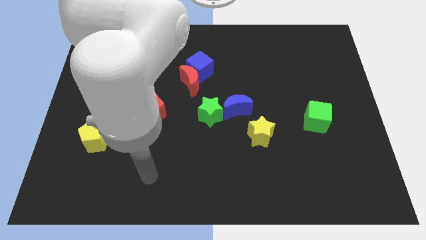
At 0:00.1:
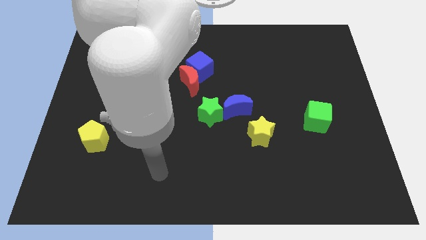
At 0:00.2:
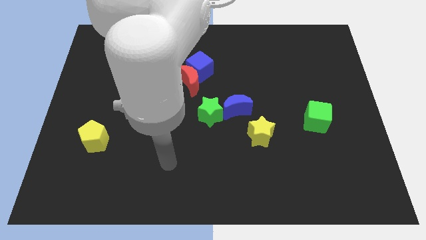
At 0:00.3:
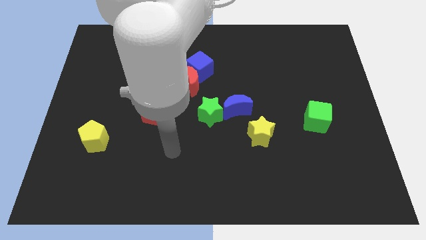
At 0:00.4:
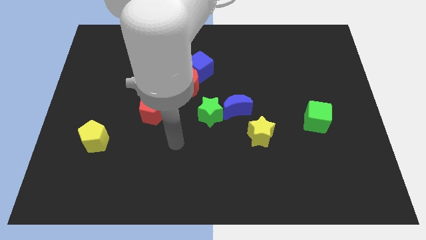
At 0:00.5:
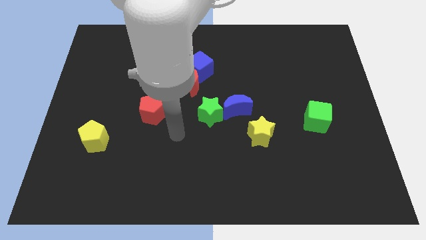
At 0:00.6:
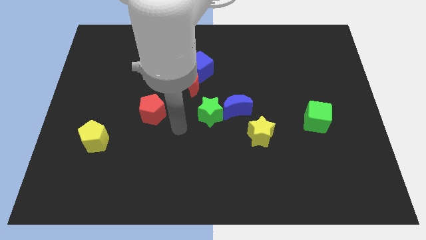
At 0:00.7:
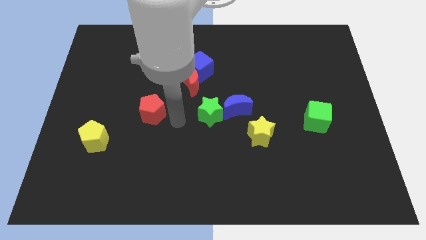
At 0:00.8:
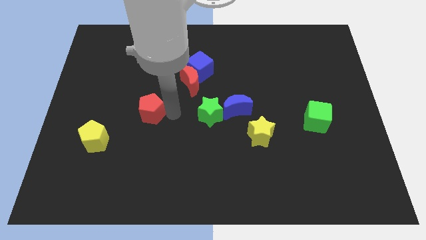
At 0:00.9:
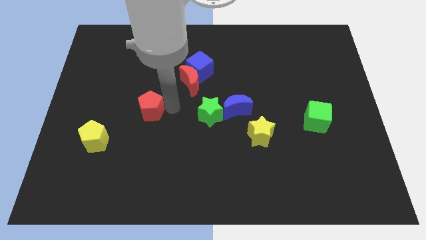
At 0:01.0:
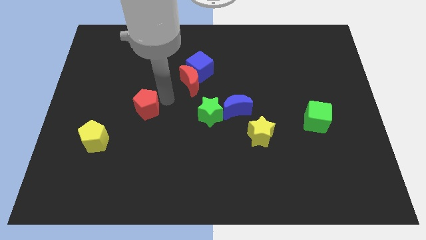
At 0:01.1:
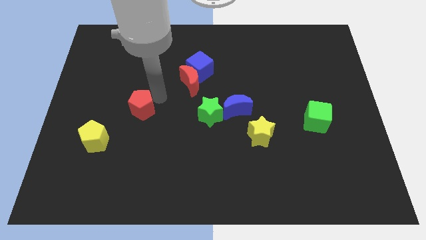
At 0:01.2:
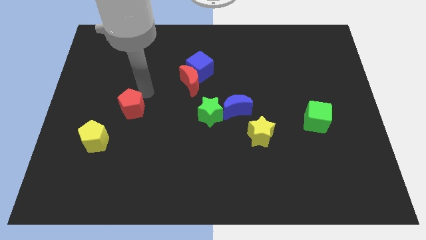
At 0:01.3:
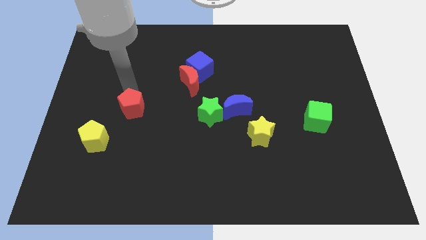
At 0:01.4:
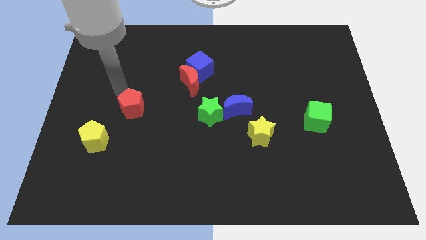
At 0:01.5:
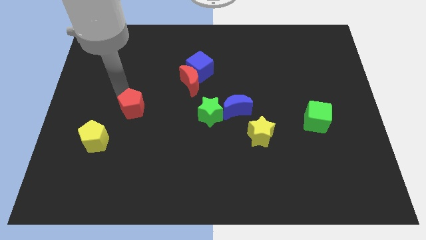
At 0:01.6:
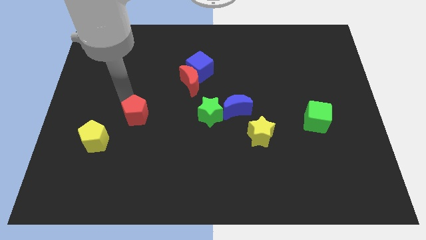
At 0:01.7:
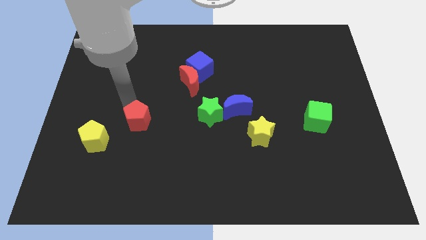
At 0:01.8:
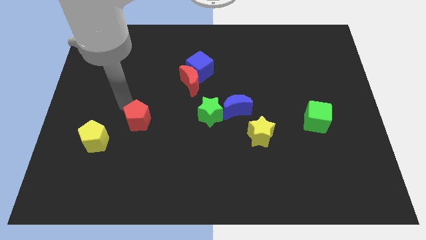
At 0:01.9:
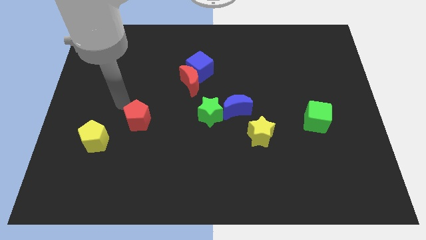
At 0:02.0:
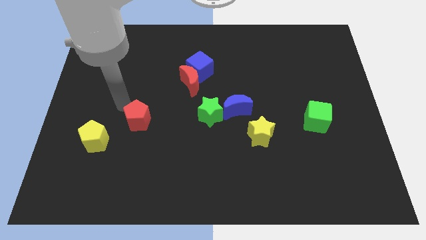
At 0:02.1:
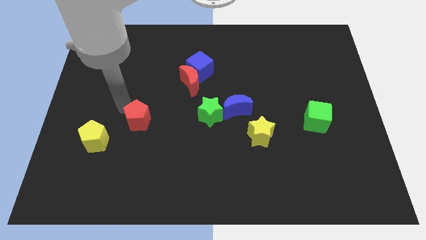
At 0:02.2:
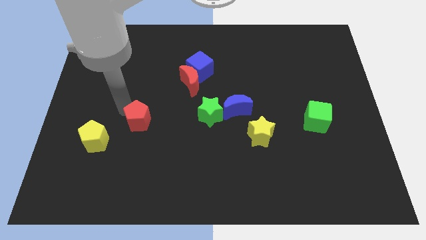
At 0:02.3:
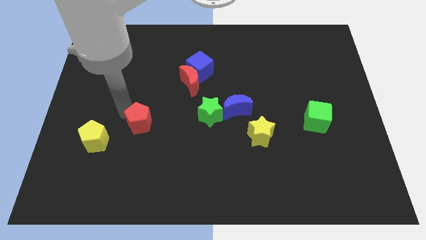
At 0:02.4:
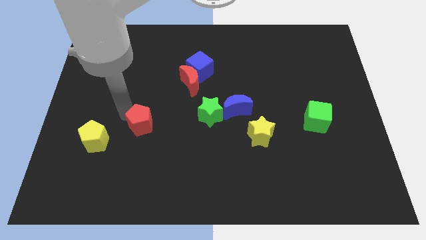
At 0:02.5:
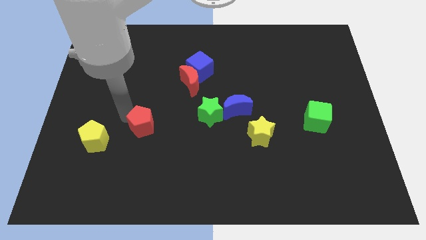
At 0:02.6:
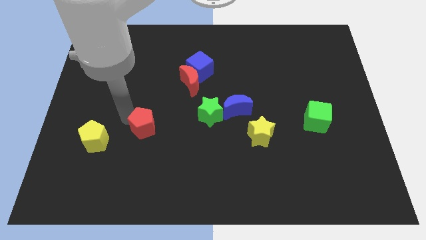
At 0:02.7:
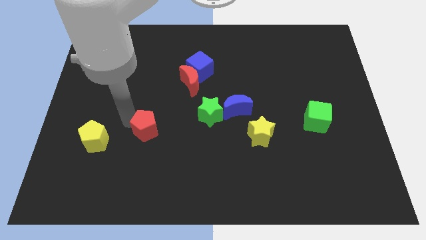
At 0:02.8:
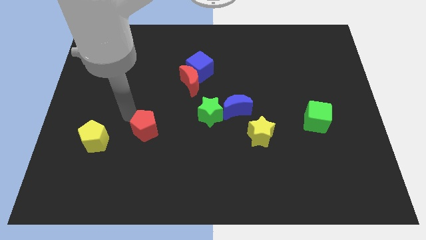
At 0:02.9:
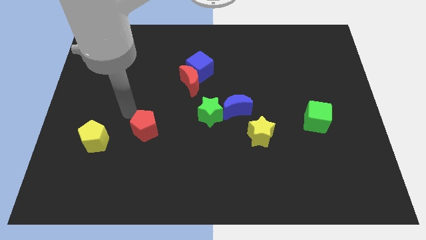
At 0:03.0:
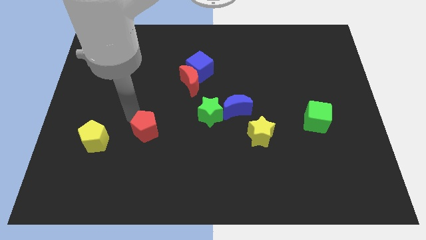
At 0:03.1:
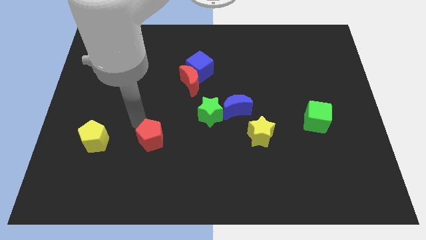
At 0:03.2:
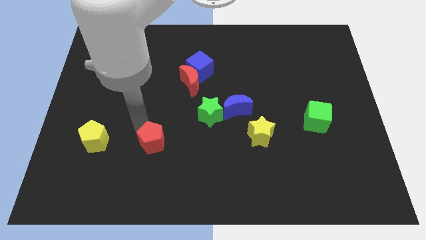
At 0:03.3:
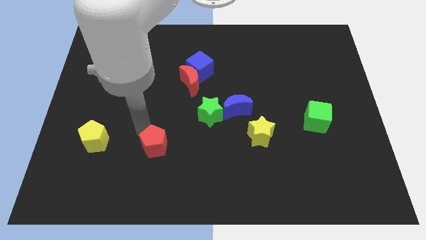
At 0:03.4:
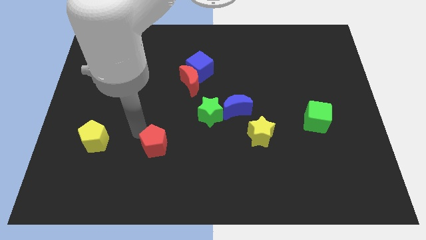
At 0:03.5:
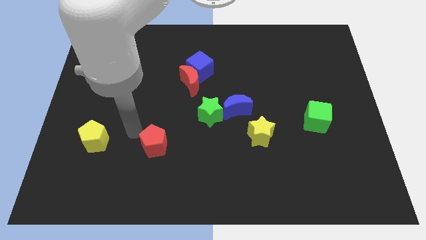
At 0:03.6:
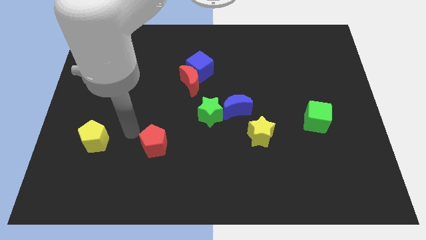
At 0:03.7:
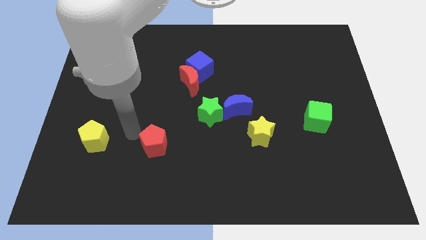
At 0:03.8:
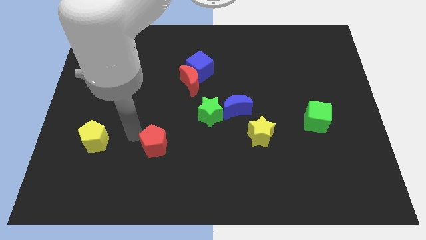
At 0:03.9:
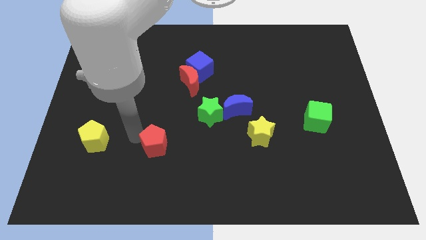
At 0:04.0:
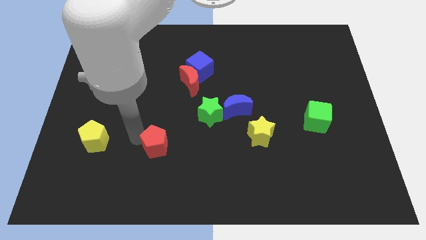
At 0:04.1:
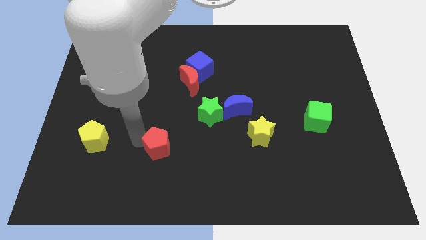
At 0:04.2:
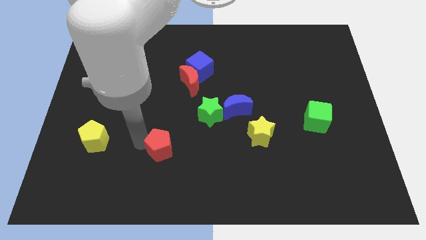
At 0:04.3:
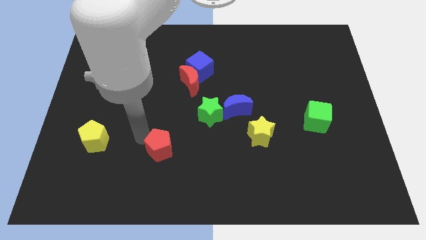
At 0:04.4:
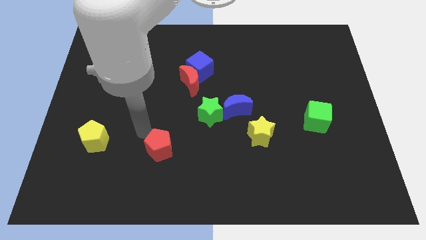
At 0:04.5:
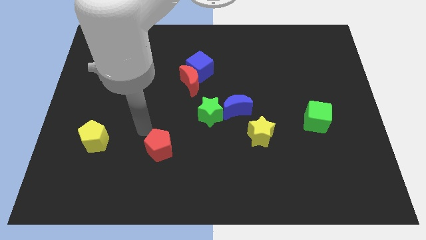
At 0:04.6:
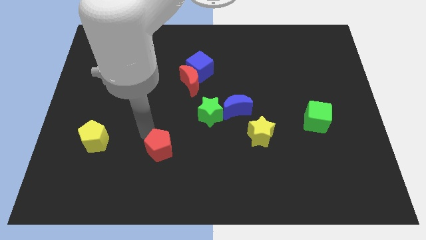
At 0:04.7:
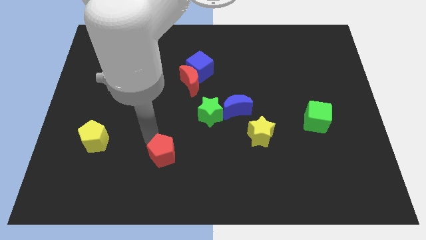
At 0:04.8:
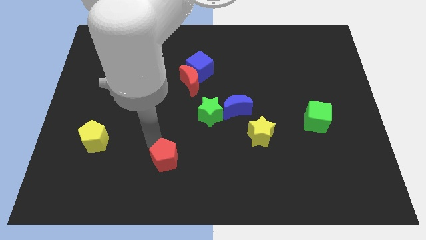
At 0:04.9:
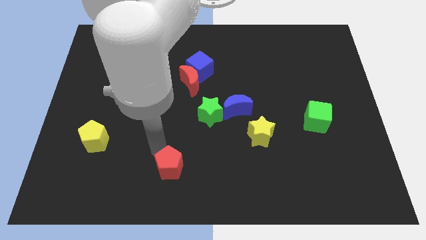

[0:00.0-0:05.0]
push the red pentagon to the bottom

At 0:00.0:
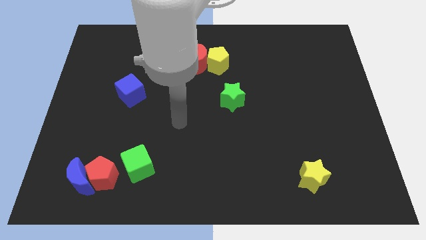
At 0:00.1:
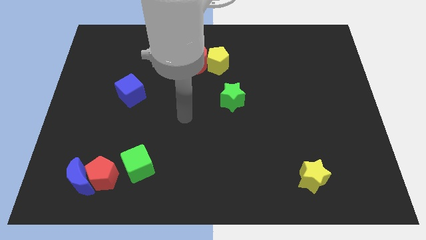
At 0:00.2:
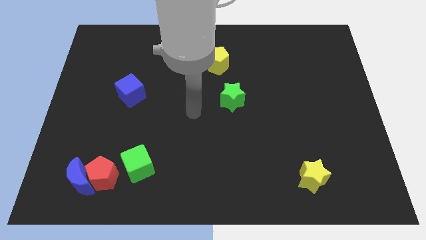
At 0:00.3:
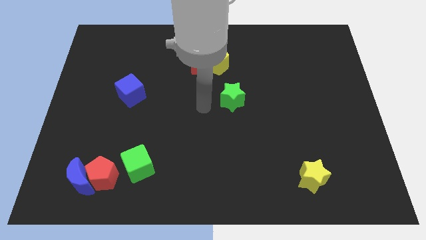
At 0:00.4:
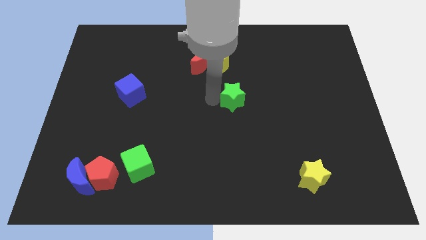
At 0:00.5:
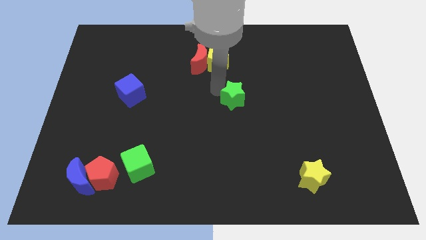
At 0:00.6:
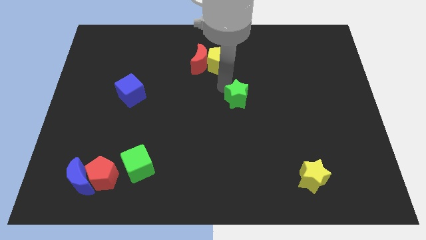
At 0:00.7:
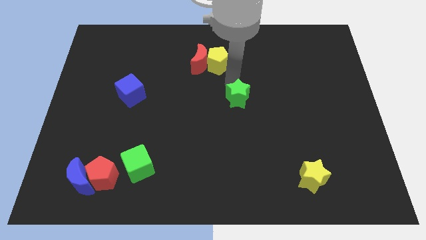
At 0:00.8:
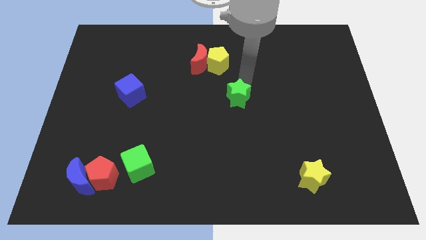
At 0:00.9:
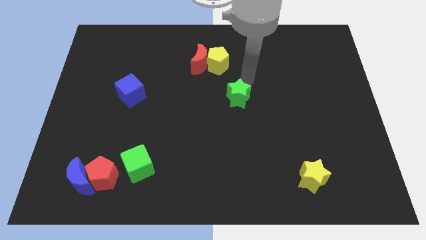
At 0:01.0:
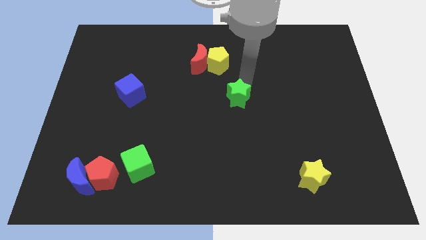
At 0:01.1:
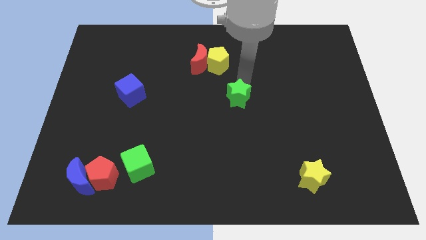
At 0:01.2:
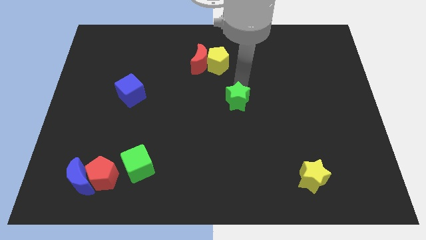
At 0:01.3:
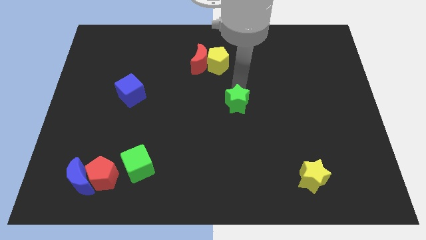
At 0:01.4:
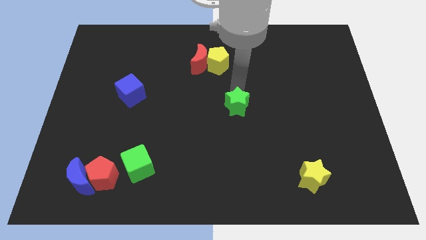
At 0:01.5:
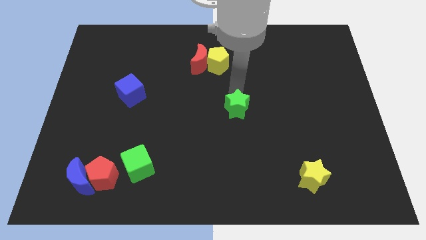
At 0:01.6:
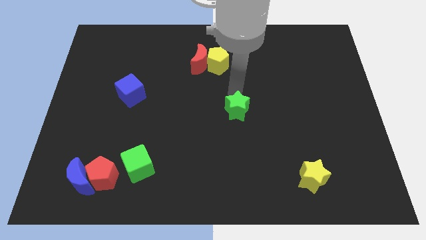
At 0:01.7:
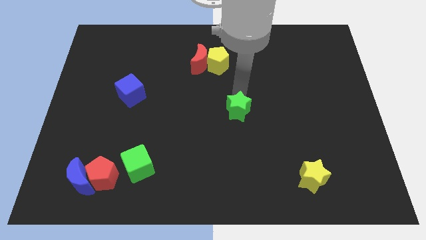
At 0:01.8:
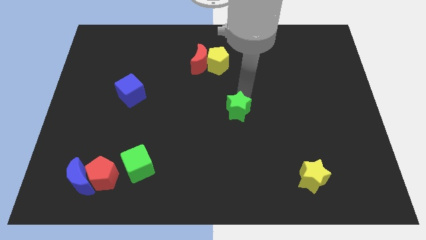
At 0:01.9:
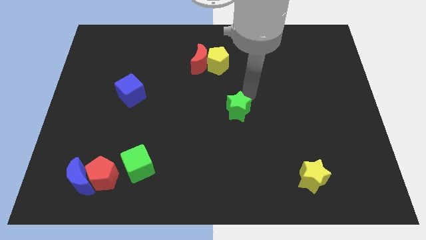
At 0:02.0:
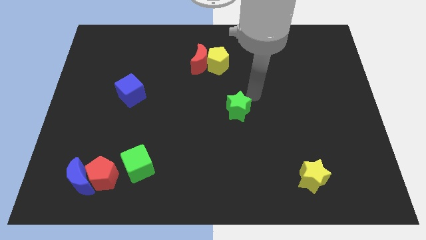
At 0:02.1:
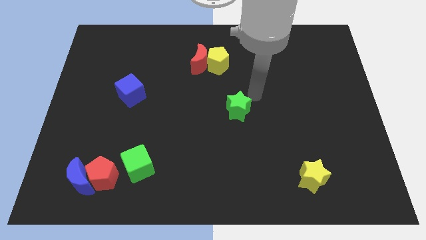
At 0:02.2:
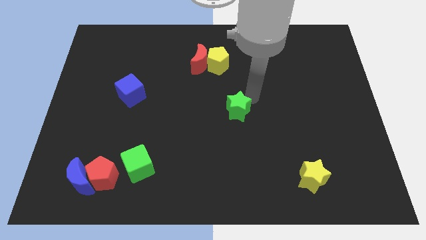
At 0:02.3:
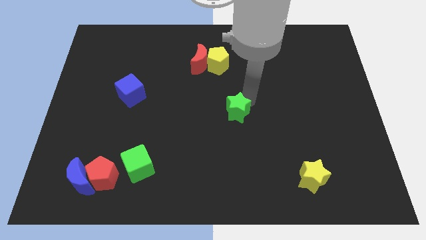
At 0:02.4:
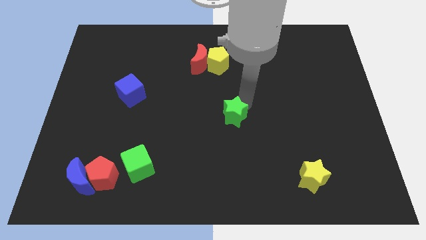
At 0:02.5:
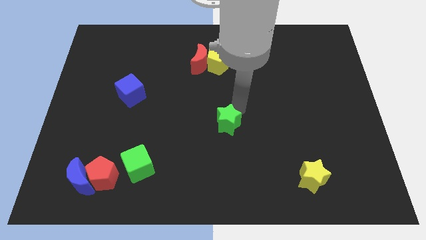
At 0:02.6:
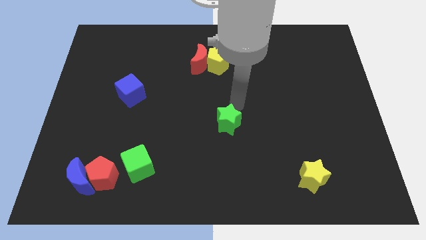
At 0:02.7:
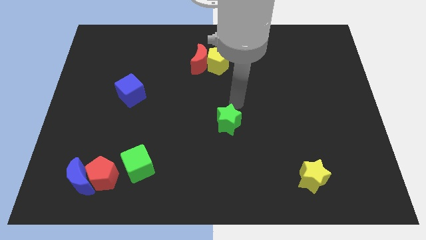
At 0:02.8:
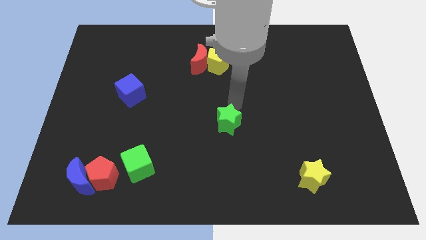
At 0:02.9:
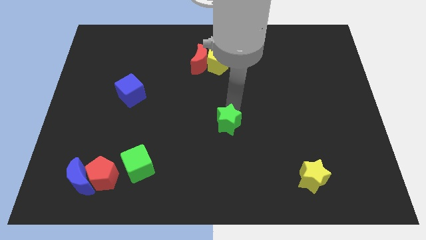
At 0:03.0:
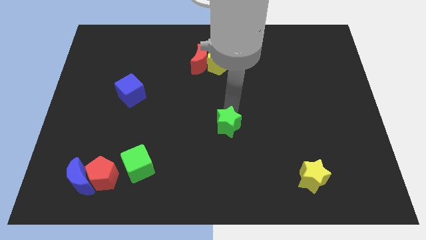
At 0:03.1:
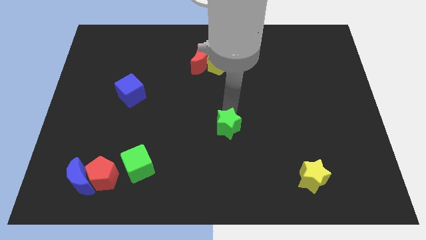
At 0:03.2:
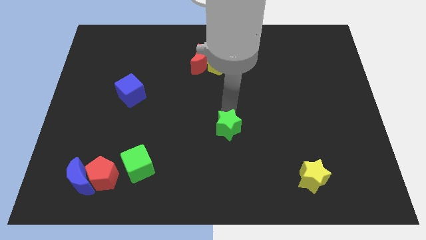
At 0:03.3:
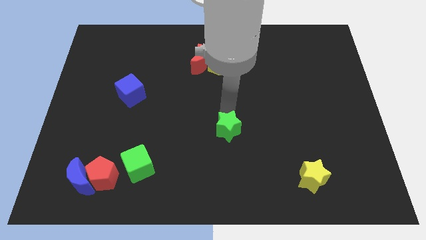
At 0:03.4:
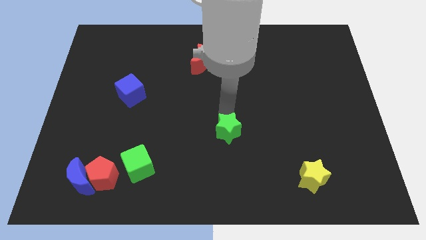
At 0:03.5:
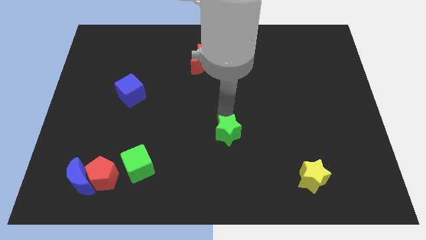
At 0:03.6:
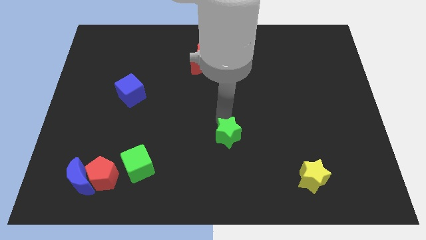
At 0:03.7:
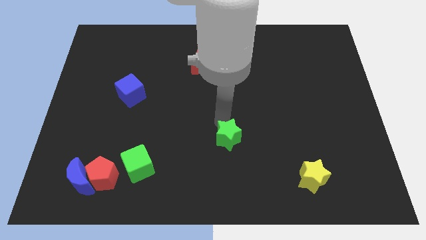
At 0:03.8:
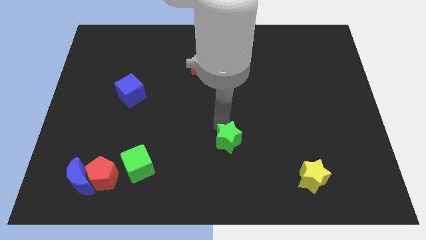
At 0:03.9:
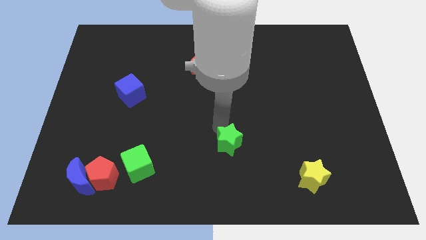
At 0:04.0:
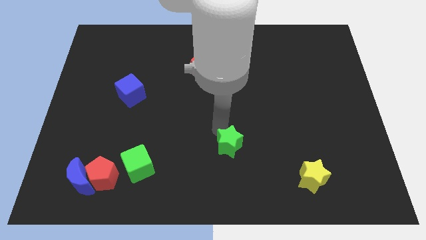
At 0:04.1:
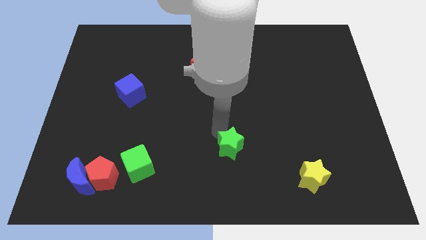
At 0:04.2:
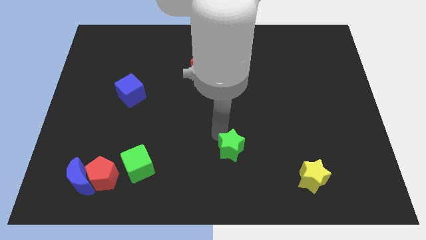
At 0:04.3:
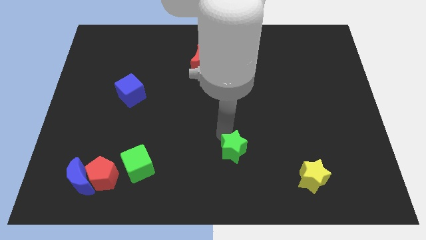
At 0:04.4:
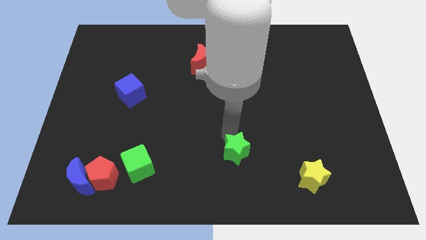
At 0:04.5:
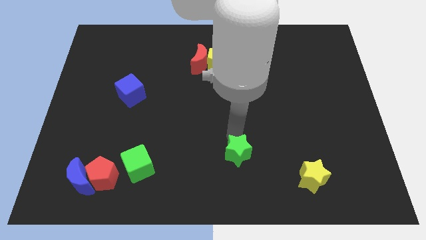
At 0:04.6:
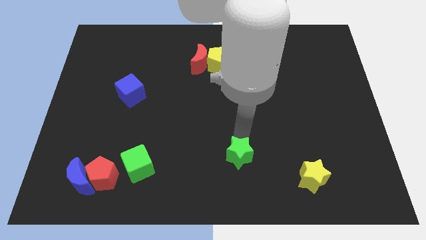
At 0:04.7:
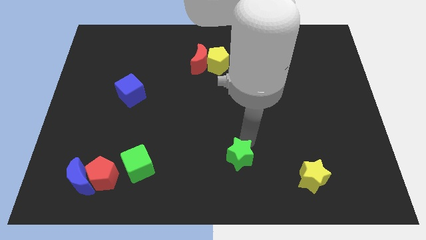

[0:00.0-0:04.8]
slide the green star to the bottom
